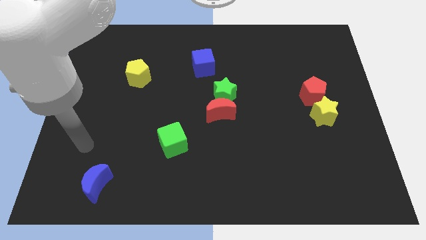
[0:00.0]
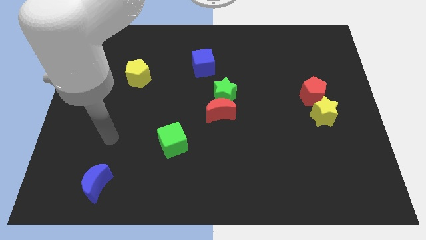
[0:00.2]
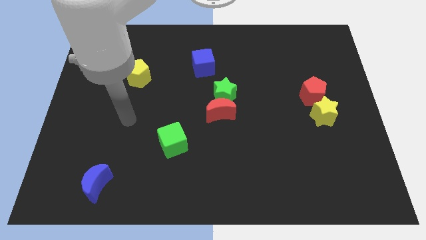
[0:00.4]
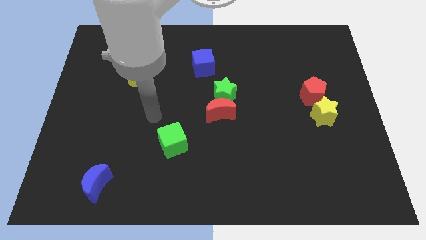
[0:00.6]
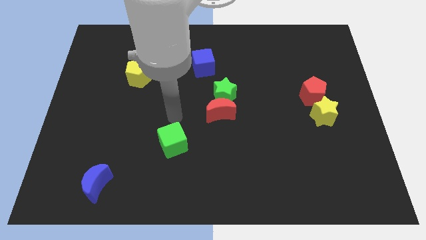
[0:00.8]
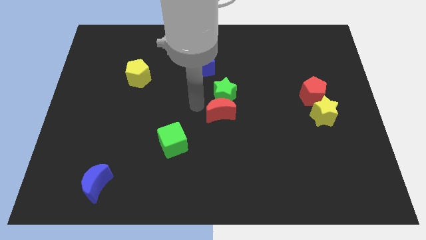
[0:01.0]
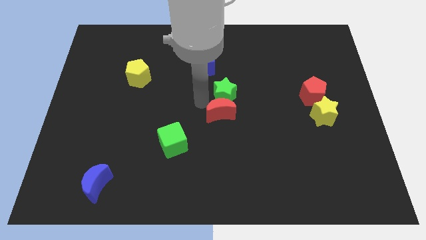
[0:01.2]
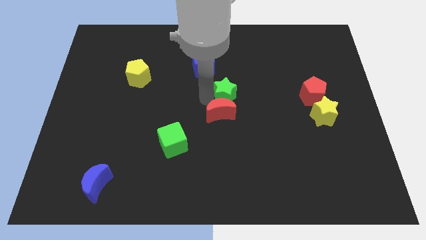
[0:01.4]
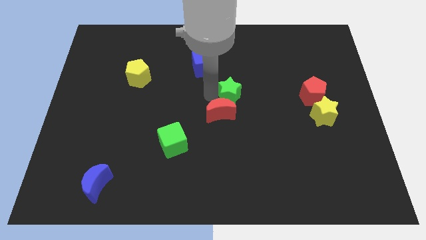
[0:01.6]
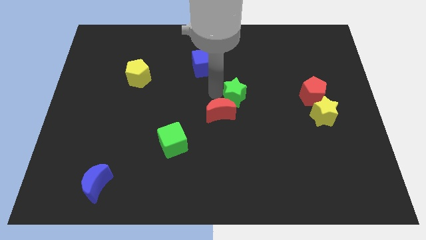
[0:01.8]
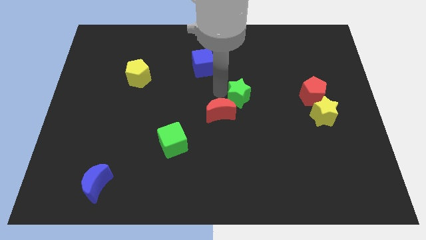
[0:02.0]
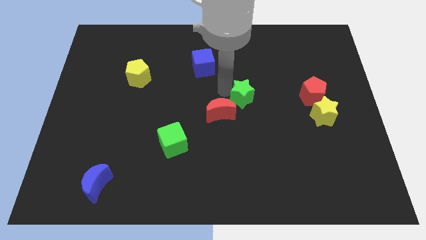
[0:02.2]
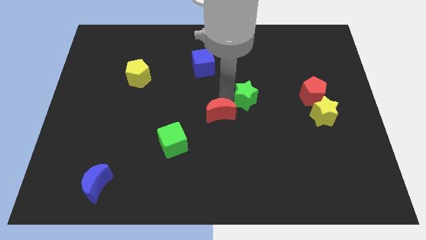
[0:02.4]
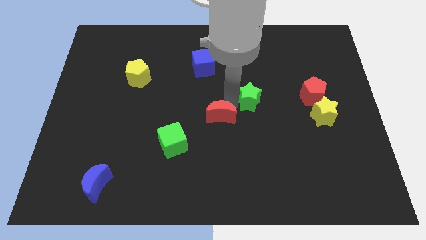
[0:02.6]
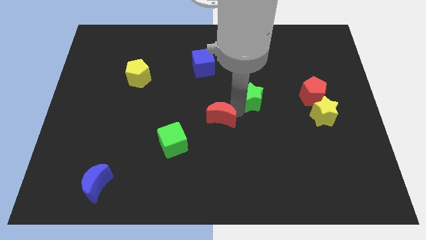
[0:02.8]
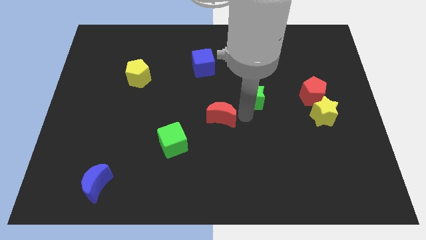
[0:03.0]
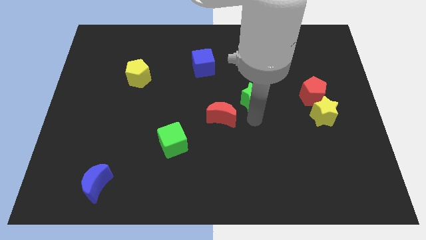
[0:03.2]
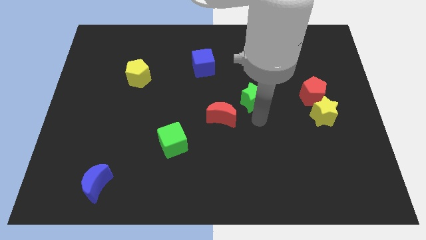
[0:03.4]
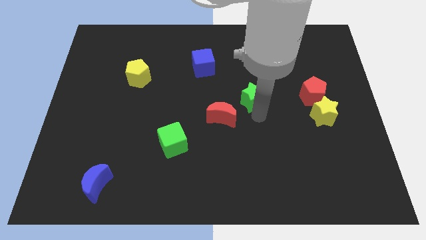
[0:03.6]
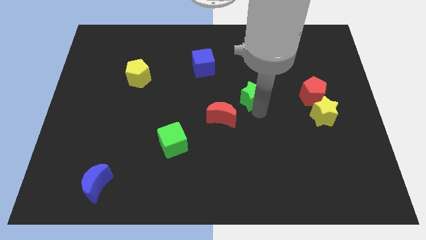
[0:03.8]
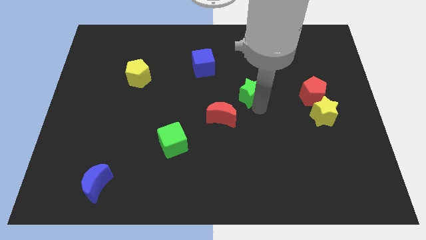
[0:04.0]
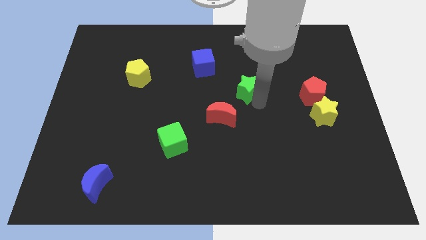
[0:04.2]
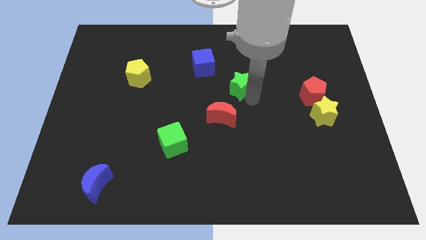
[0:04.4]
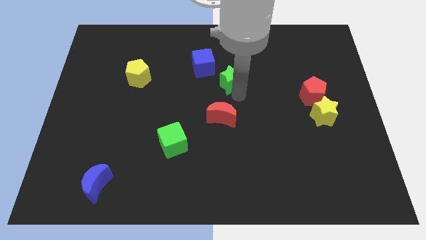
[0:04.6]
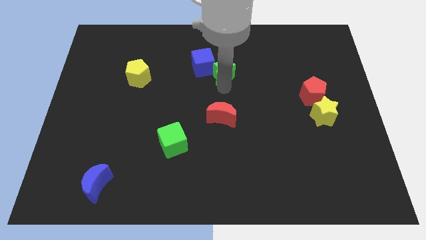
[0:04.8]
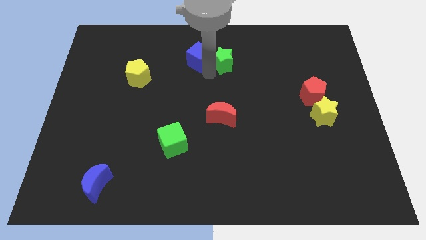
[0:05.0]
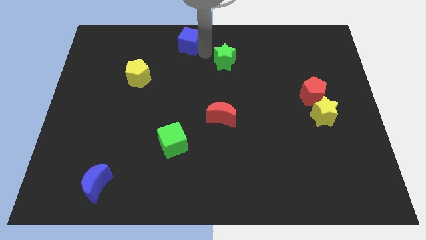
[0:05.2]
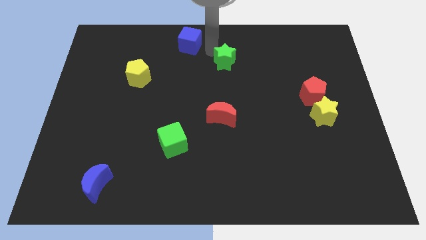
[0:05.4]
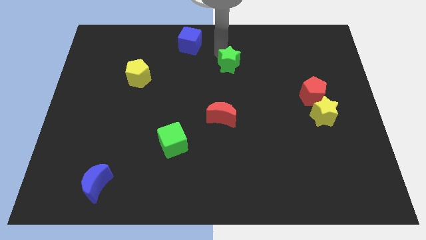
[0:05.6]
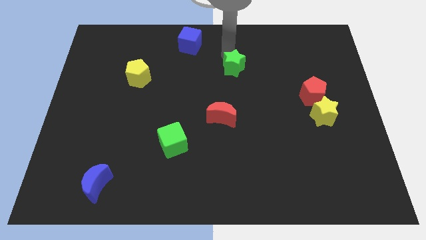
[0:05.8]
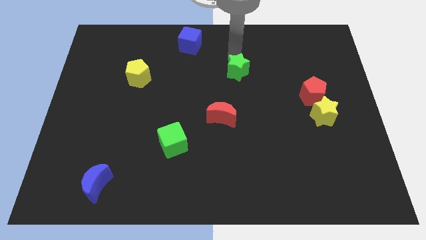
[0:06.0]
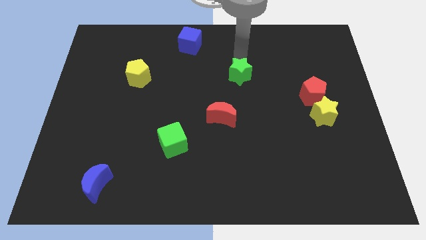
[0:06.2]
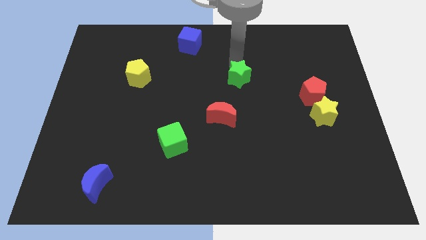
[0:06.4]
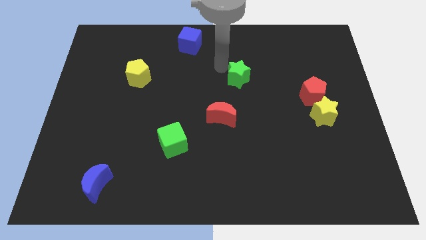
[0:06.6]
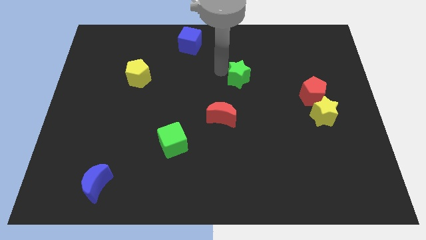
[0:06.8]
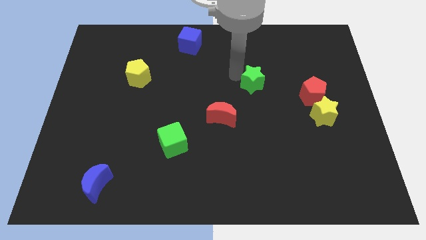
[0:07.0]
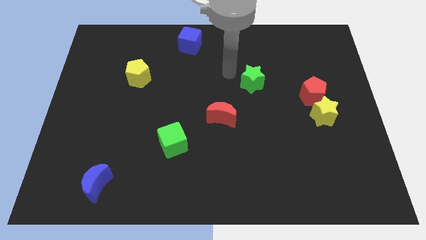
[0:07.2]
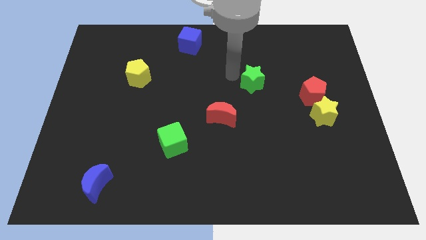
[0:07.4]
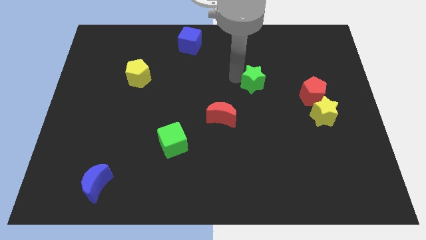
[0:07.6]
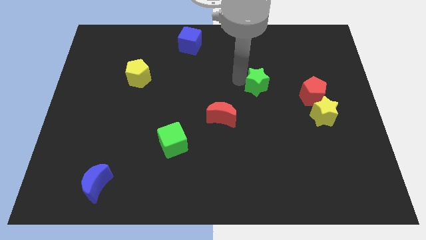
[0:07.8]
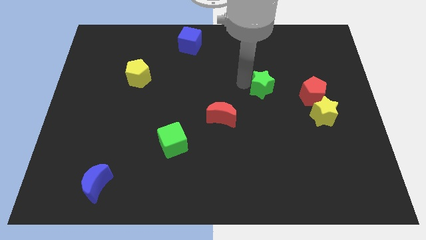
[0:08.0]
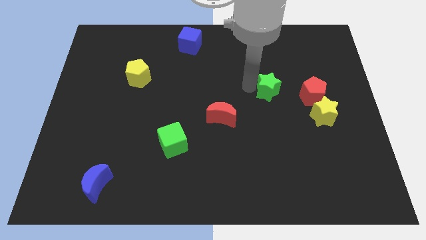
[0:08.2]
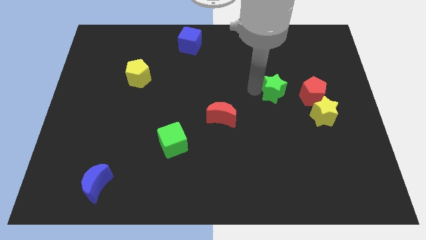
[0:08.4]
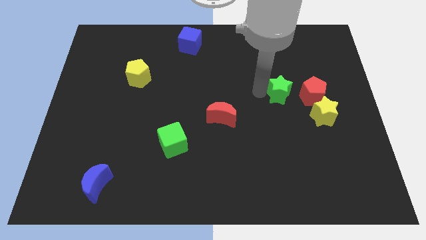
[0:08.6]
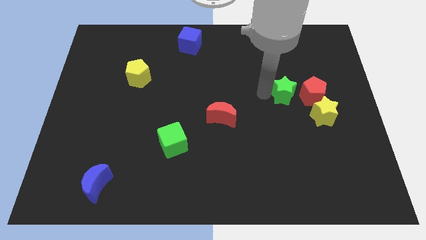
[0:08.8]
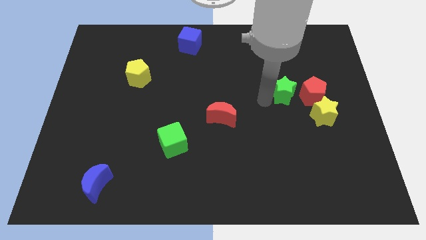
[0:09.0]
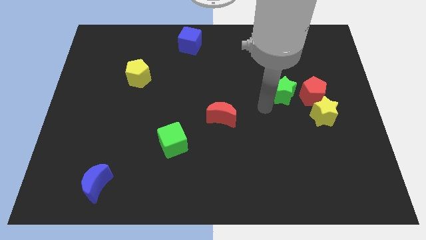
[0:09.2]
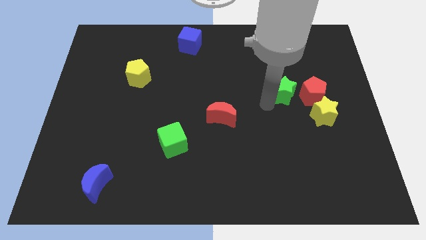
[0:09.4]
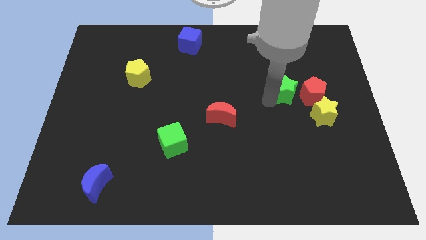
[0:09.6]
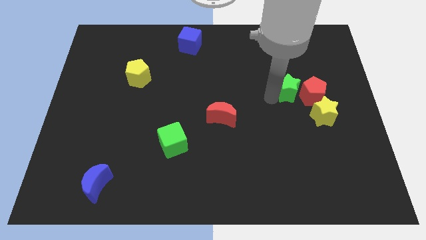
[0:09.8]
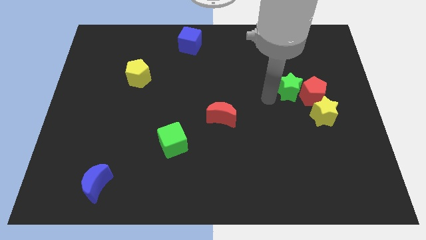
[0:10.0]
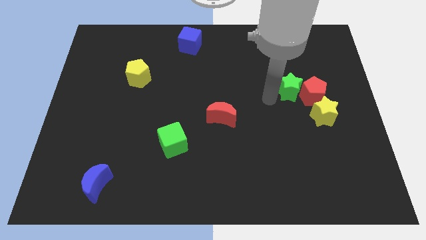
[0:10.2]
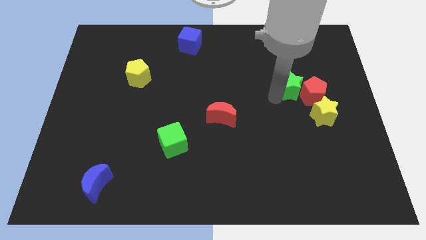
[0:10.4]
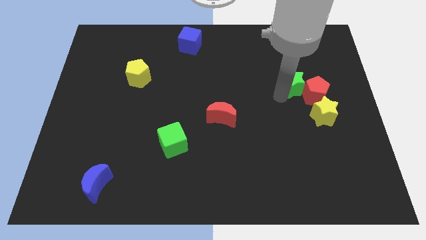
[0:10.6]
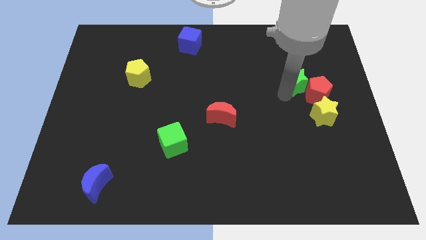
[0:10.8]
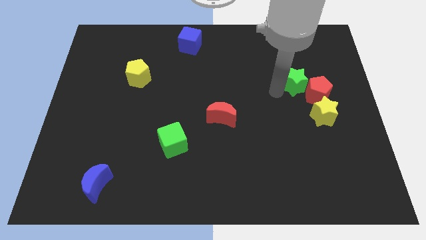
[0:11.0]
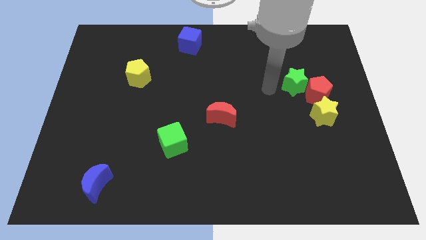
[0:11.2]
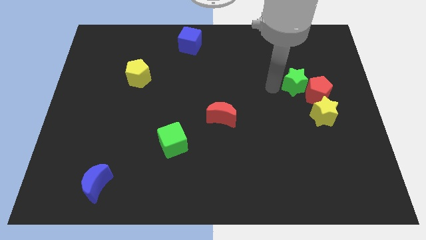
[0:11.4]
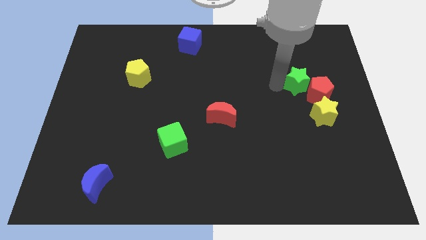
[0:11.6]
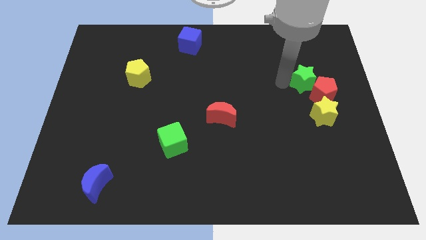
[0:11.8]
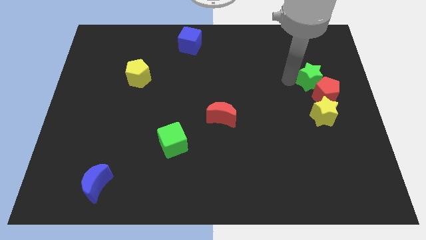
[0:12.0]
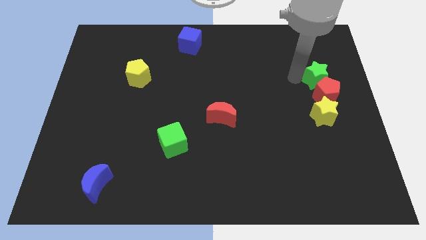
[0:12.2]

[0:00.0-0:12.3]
move the green star to the top right of the red pentagon

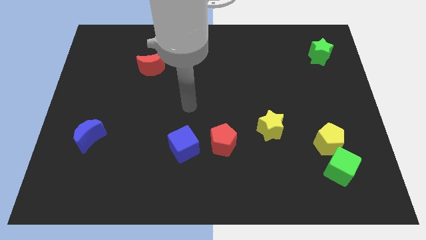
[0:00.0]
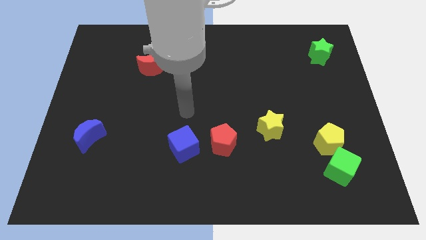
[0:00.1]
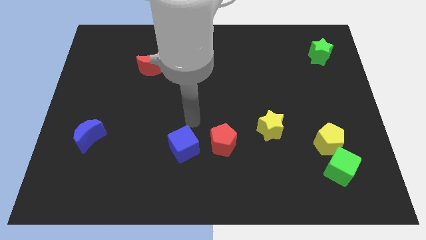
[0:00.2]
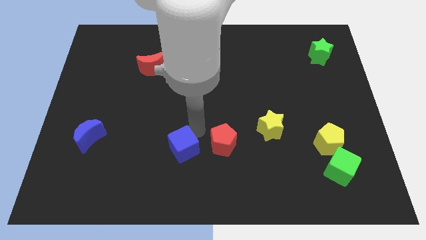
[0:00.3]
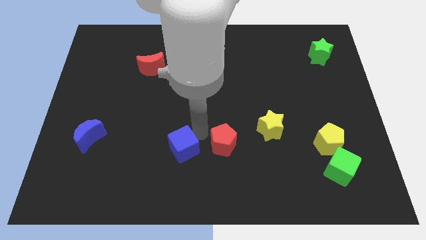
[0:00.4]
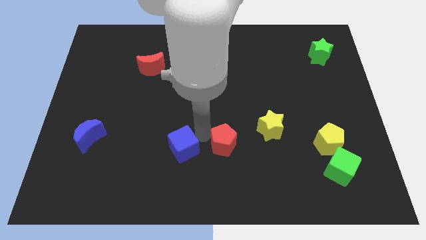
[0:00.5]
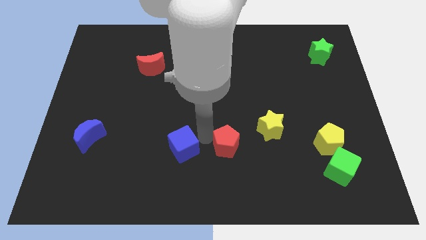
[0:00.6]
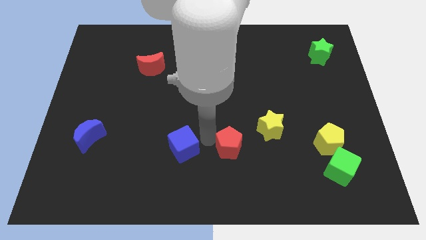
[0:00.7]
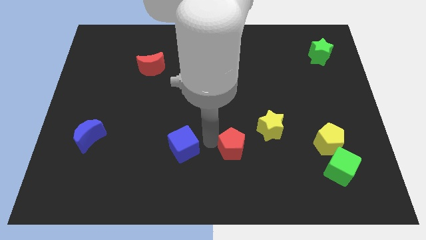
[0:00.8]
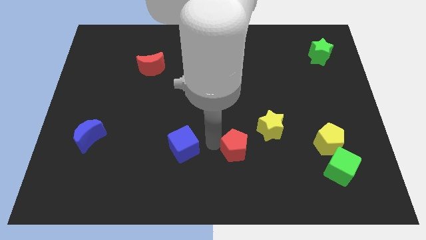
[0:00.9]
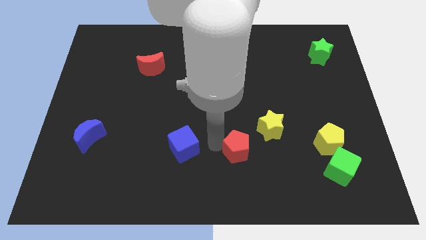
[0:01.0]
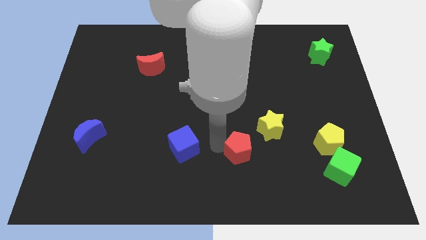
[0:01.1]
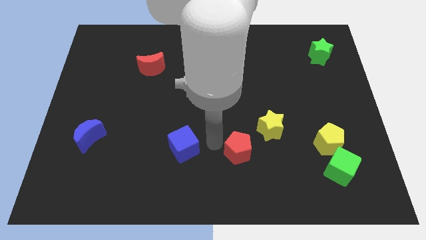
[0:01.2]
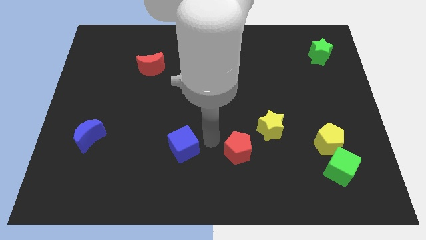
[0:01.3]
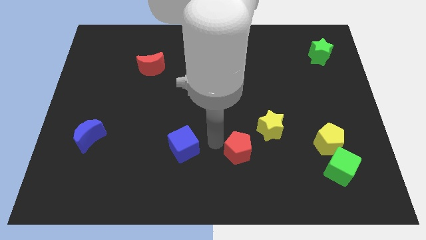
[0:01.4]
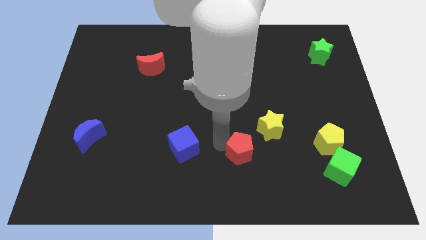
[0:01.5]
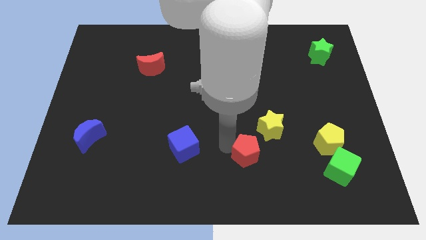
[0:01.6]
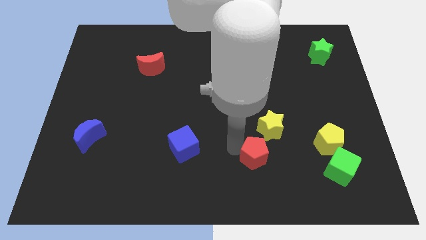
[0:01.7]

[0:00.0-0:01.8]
move the red pentagon below the yellow star
